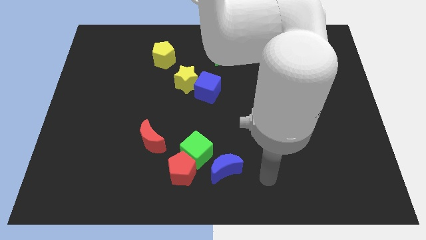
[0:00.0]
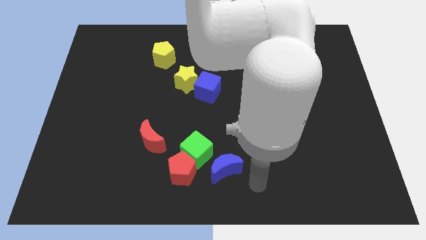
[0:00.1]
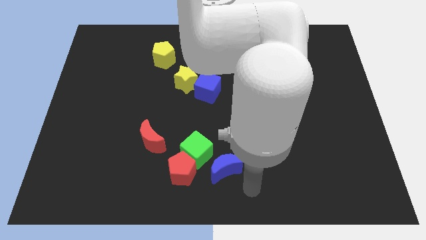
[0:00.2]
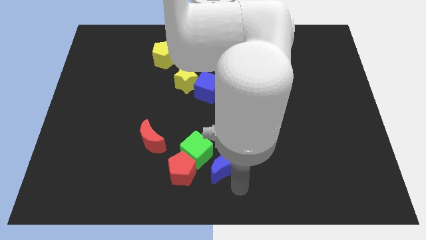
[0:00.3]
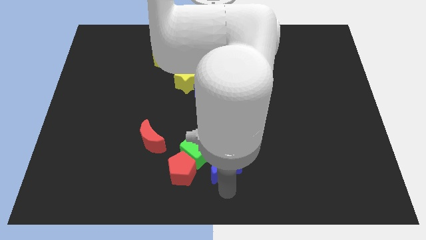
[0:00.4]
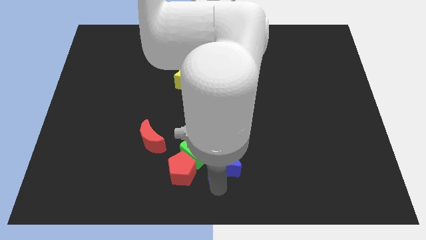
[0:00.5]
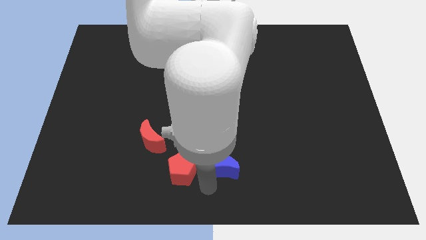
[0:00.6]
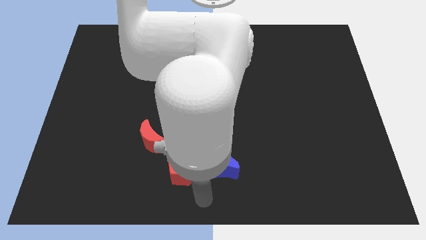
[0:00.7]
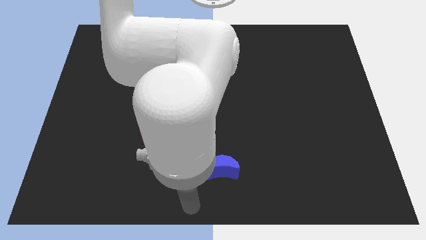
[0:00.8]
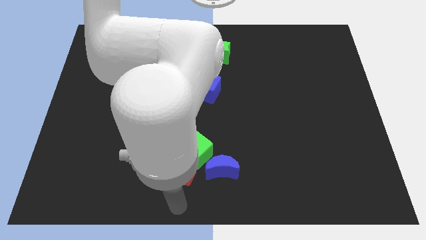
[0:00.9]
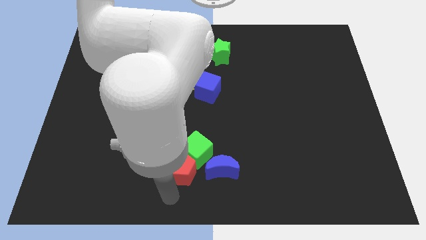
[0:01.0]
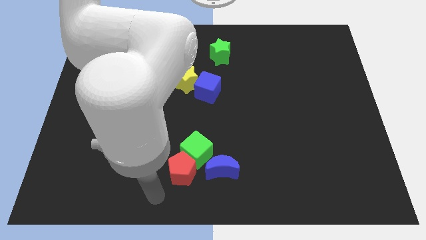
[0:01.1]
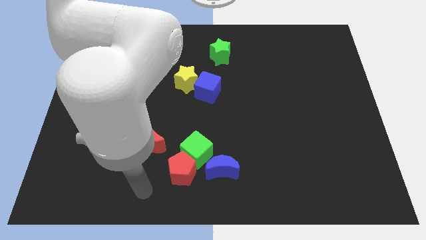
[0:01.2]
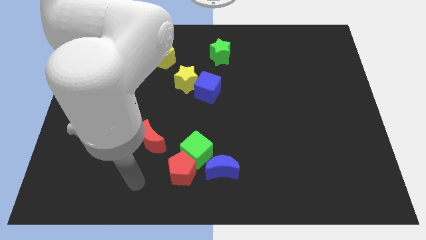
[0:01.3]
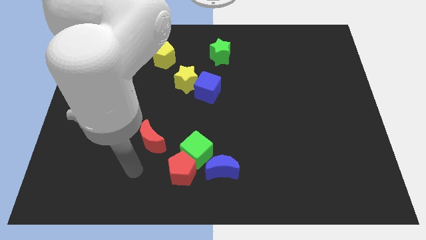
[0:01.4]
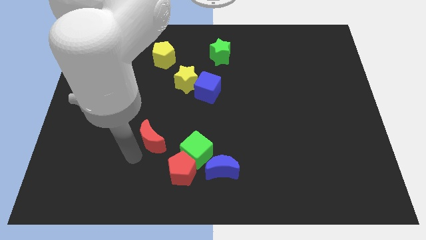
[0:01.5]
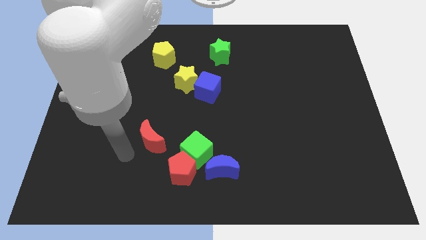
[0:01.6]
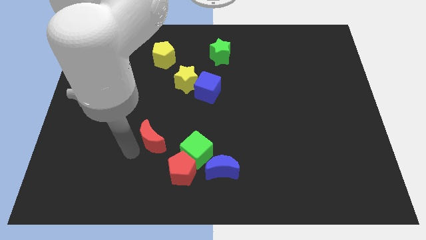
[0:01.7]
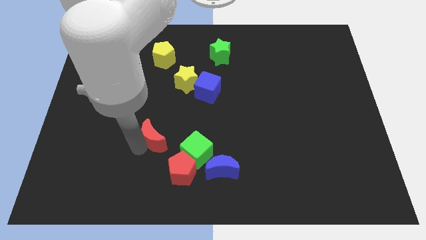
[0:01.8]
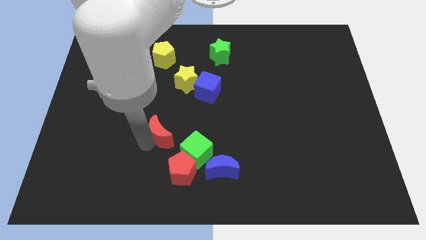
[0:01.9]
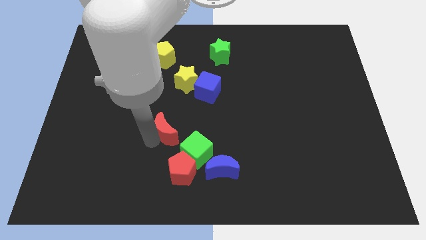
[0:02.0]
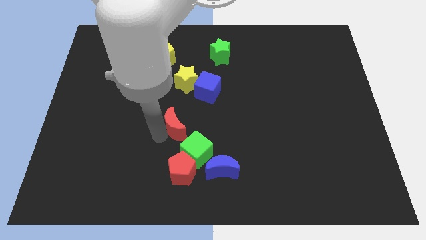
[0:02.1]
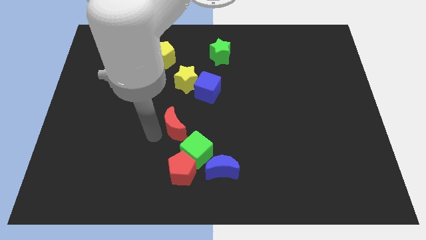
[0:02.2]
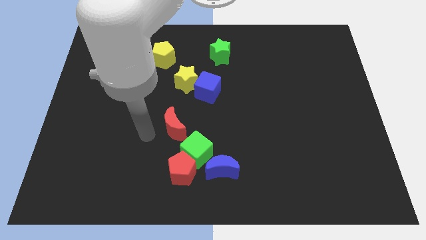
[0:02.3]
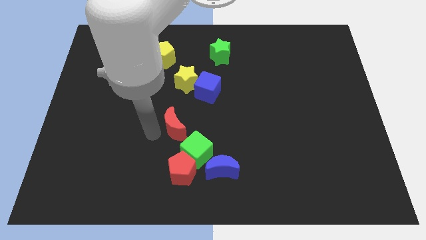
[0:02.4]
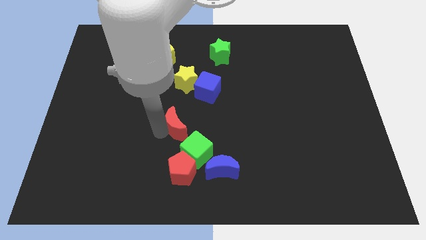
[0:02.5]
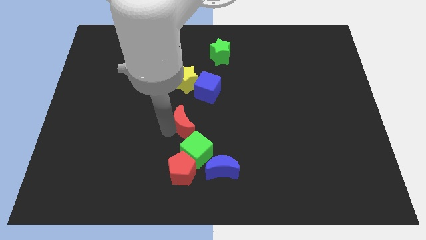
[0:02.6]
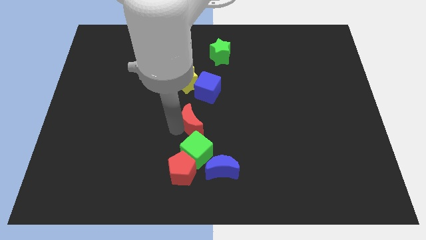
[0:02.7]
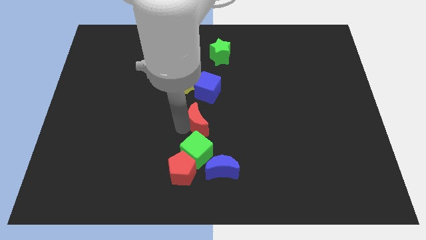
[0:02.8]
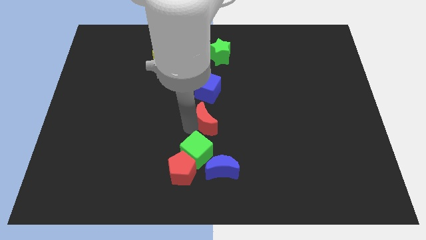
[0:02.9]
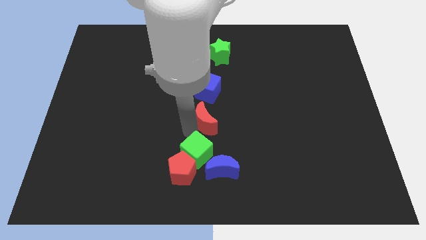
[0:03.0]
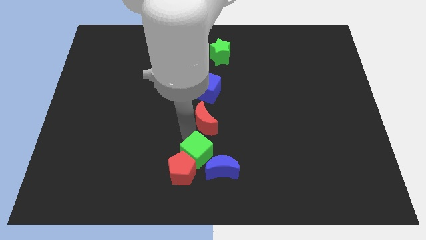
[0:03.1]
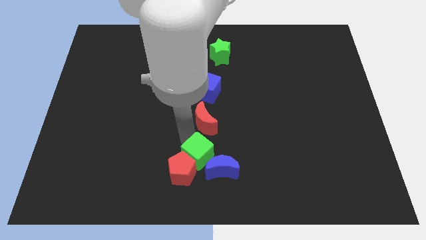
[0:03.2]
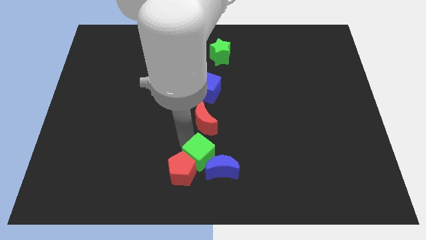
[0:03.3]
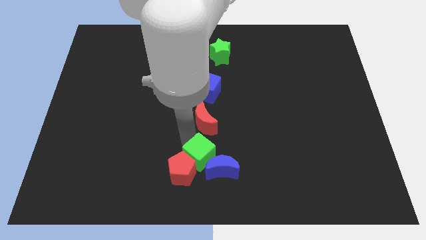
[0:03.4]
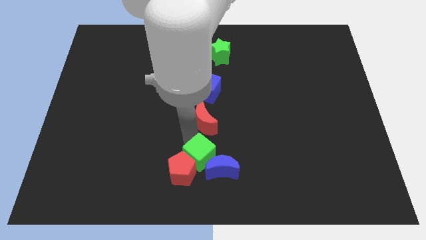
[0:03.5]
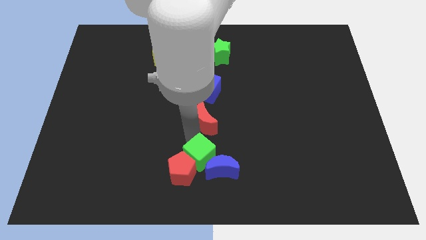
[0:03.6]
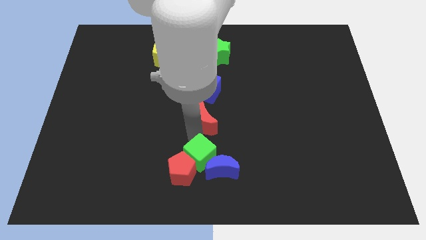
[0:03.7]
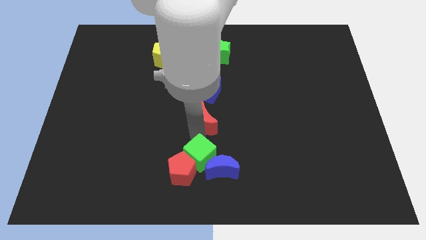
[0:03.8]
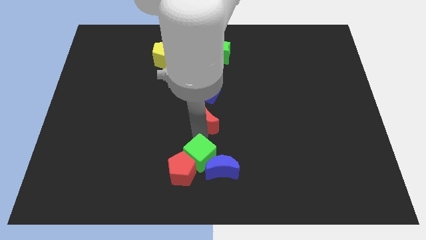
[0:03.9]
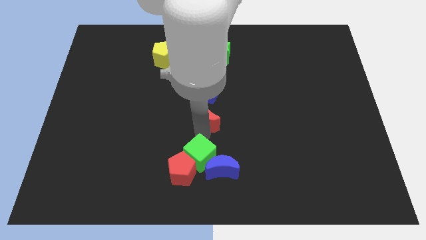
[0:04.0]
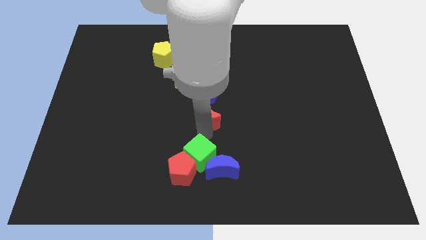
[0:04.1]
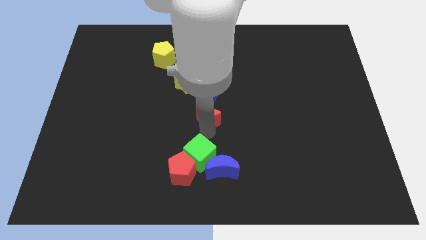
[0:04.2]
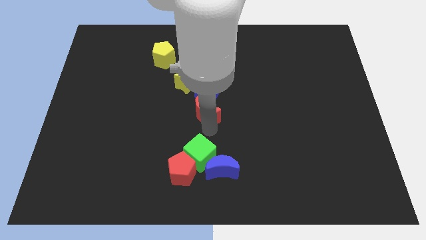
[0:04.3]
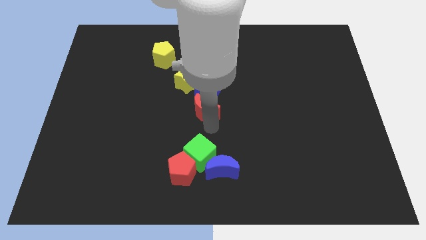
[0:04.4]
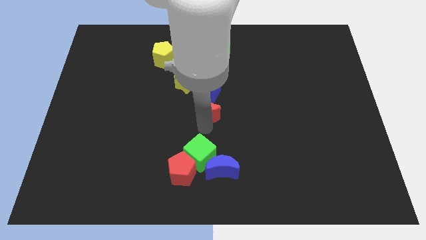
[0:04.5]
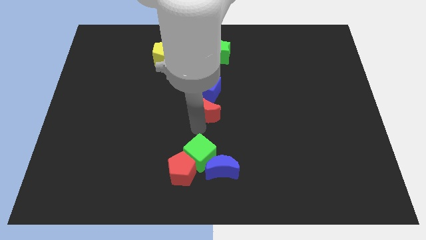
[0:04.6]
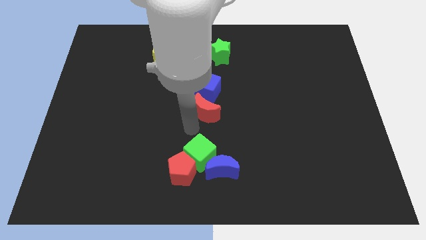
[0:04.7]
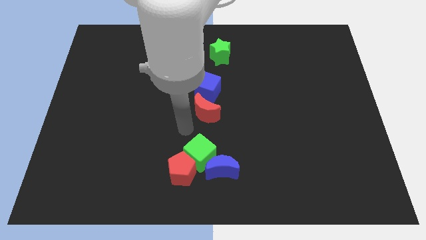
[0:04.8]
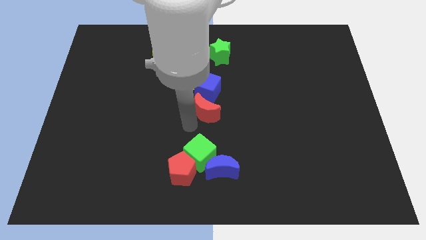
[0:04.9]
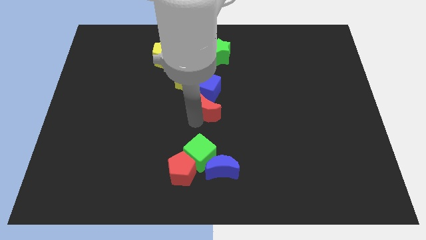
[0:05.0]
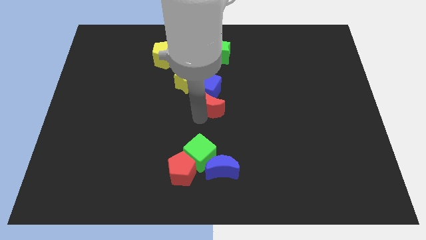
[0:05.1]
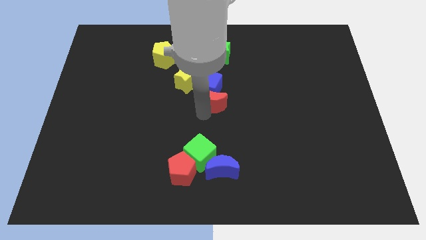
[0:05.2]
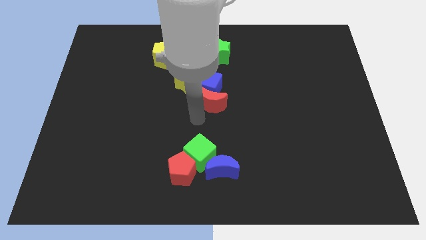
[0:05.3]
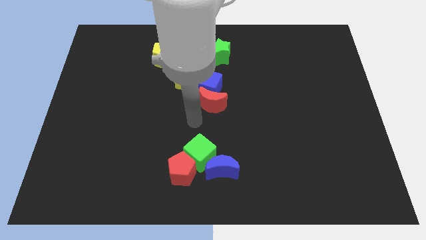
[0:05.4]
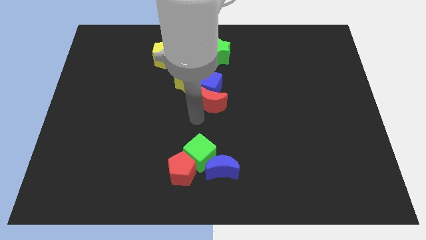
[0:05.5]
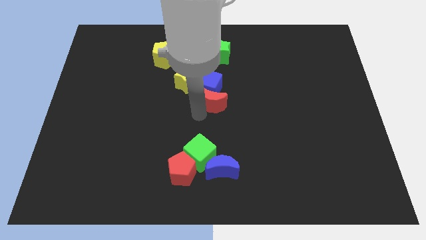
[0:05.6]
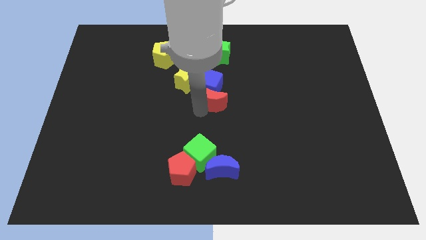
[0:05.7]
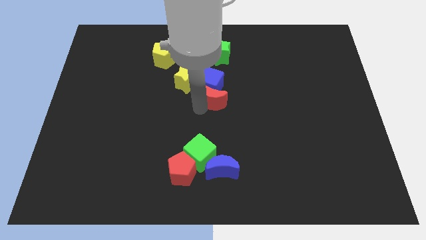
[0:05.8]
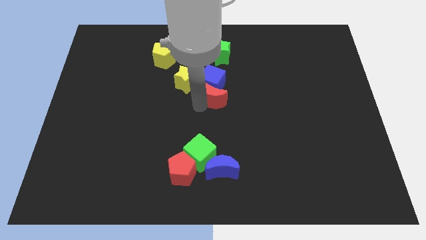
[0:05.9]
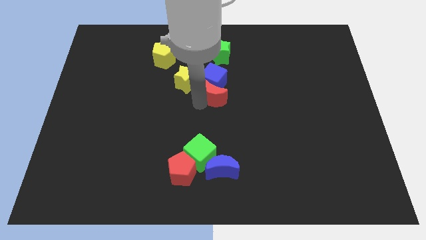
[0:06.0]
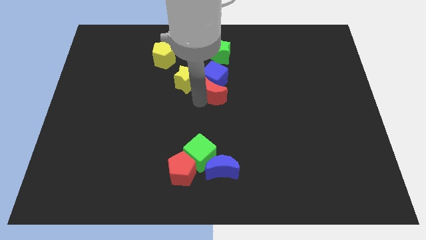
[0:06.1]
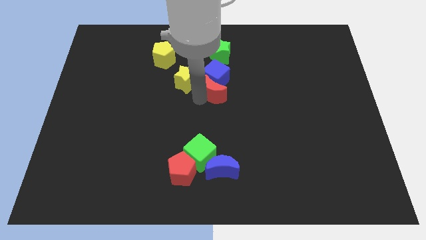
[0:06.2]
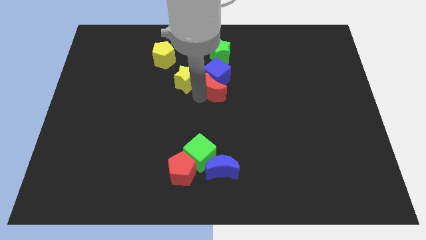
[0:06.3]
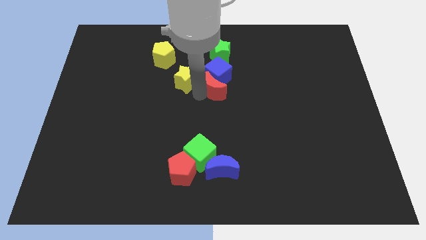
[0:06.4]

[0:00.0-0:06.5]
move the red moon up and to the right

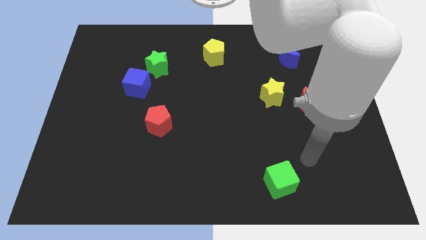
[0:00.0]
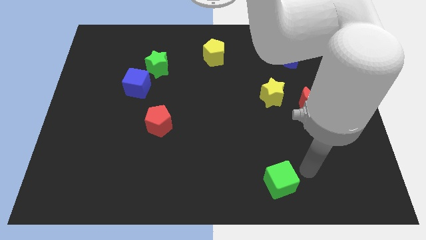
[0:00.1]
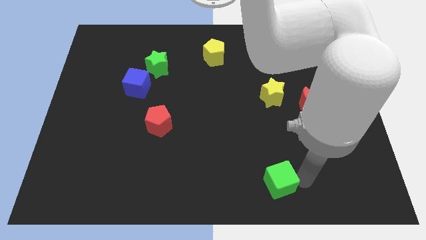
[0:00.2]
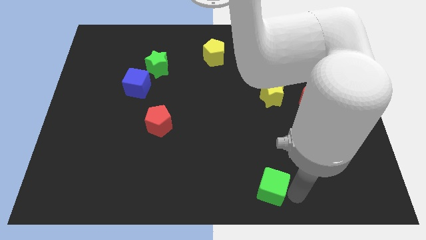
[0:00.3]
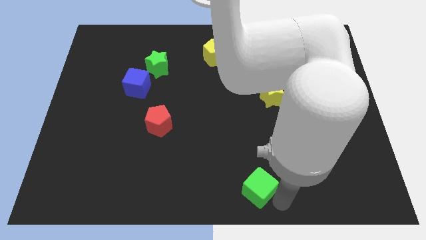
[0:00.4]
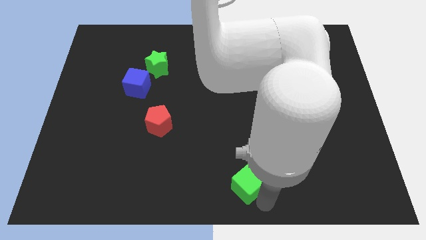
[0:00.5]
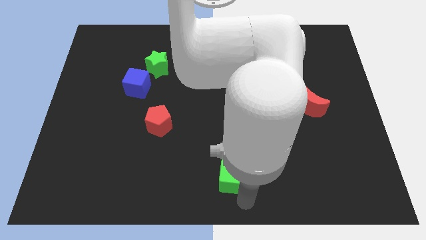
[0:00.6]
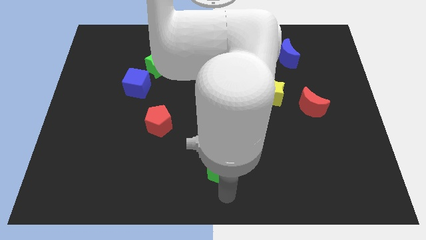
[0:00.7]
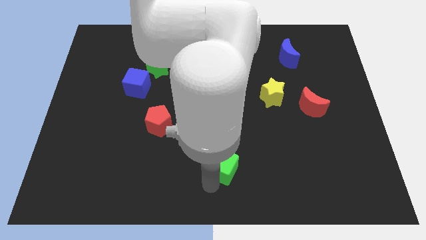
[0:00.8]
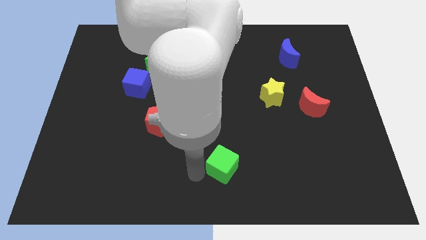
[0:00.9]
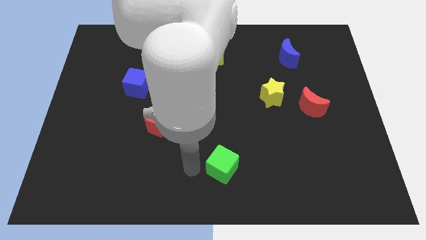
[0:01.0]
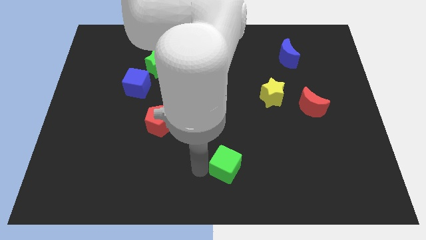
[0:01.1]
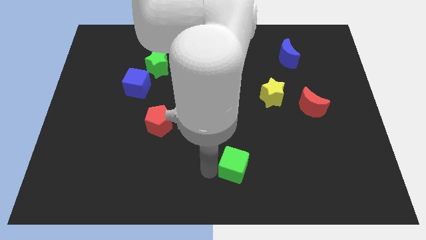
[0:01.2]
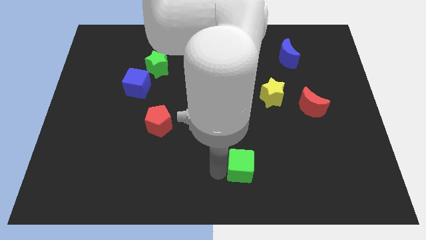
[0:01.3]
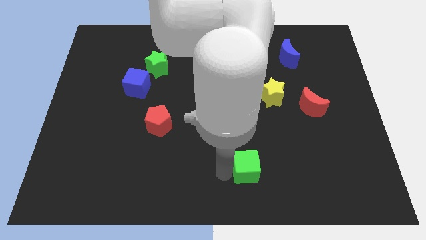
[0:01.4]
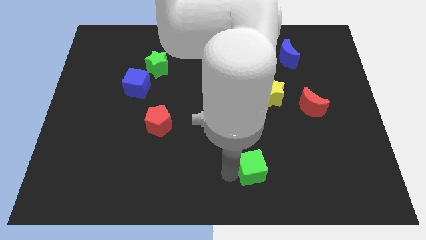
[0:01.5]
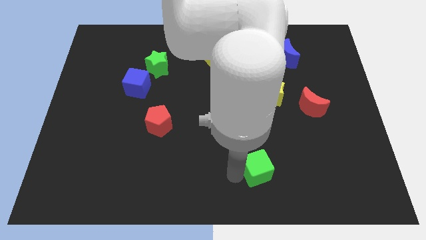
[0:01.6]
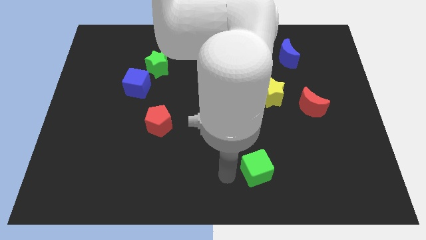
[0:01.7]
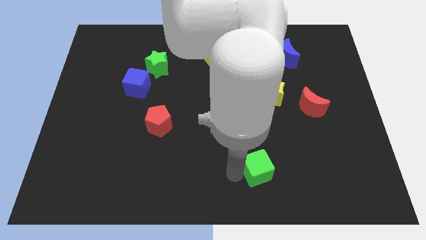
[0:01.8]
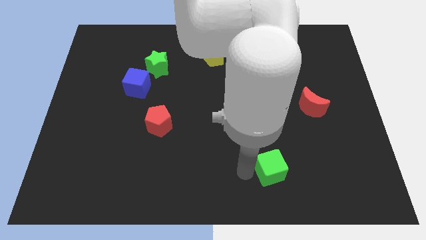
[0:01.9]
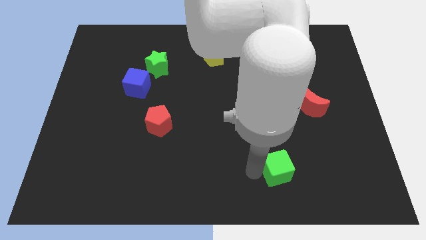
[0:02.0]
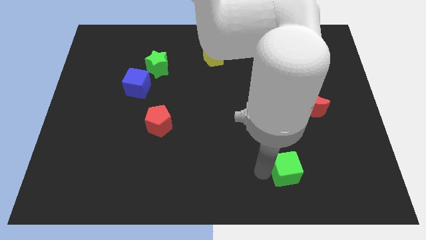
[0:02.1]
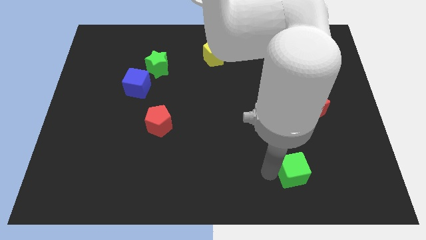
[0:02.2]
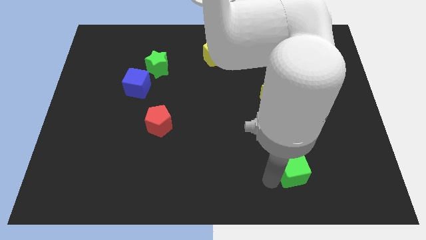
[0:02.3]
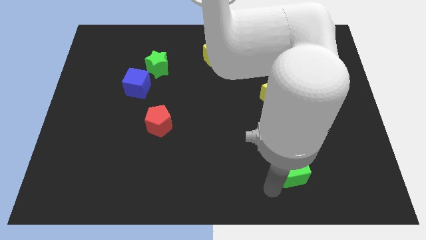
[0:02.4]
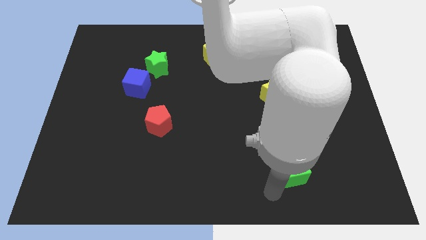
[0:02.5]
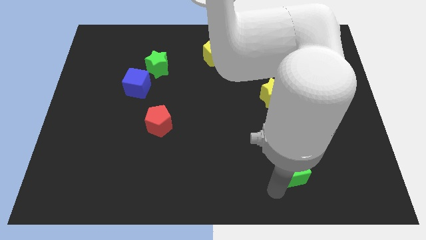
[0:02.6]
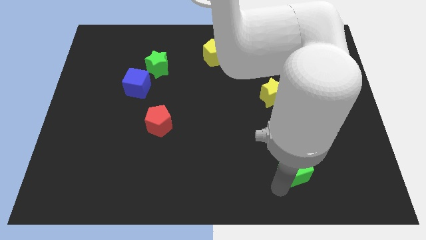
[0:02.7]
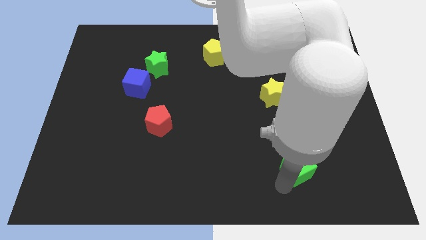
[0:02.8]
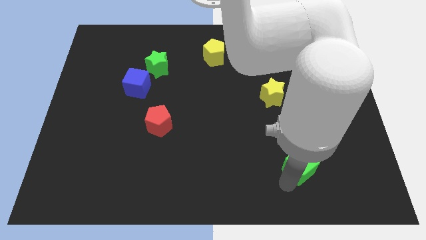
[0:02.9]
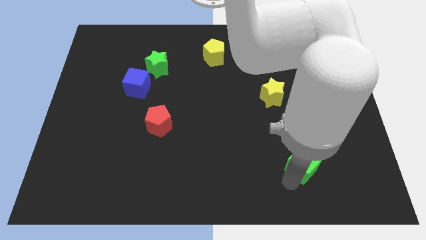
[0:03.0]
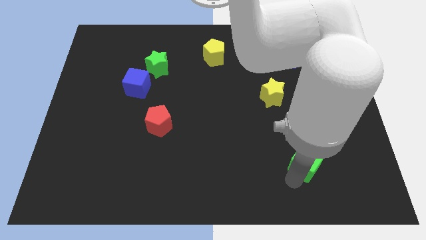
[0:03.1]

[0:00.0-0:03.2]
slide the green cube diagonally up and right a bit
